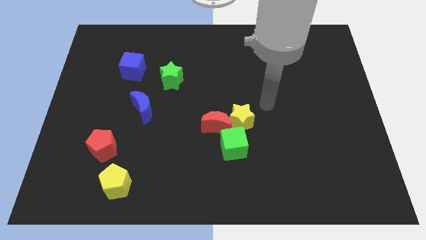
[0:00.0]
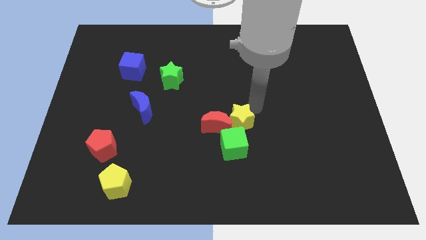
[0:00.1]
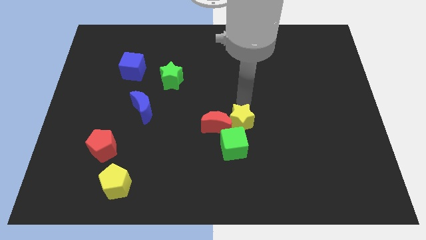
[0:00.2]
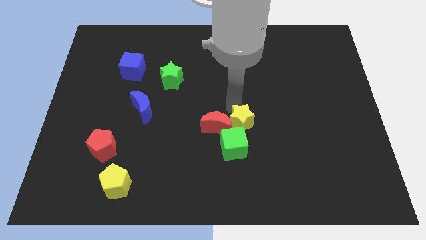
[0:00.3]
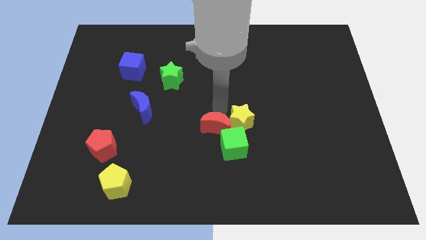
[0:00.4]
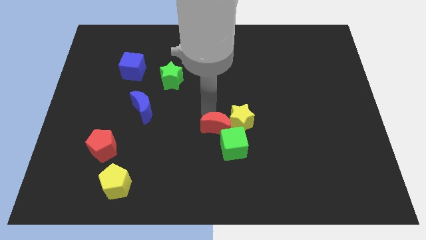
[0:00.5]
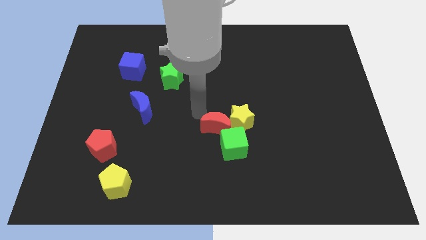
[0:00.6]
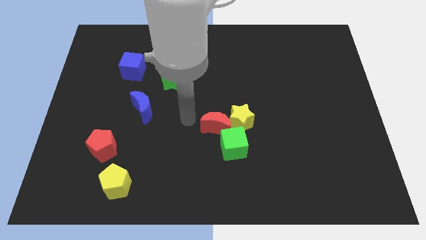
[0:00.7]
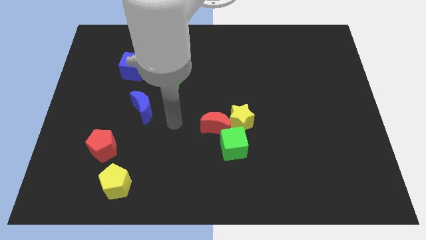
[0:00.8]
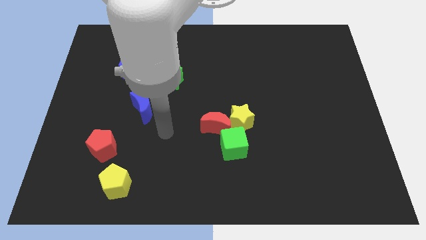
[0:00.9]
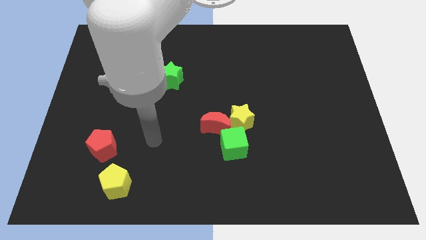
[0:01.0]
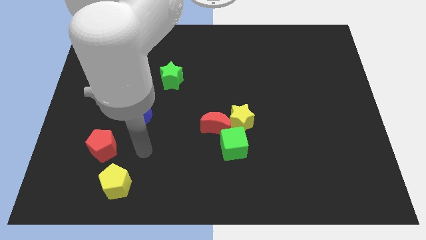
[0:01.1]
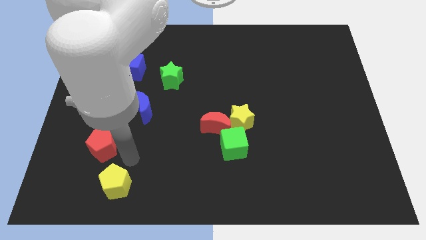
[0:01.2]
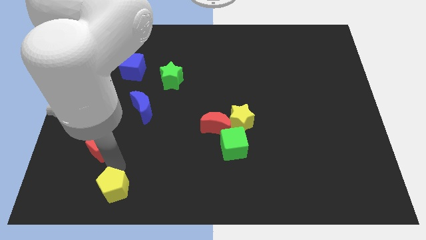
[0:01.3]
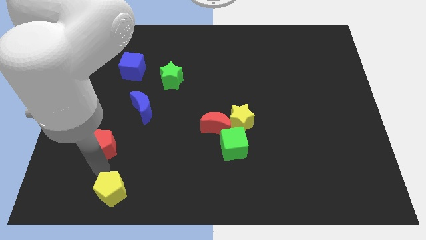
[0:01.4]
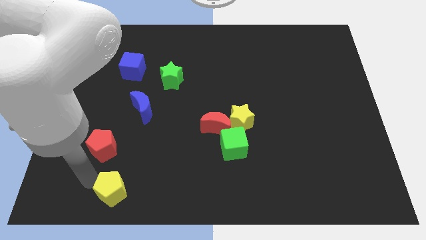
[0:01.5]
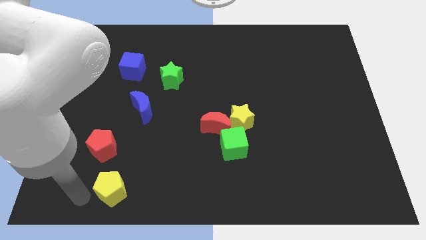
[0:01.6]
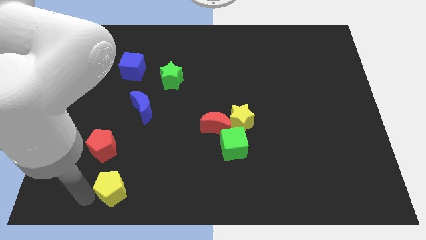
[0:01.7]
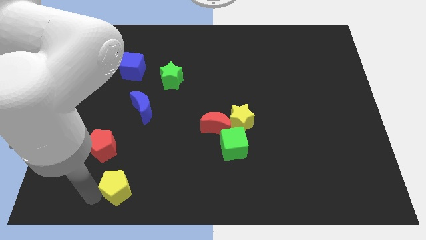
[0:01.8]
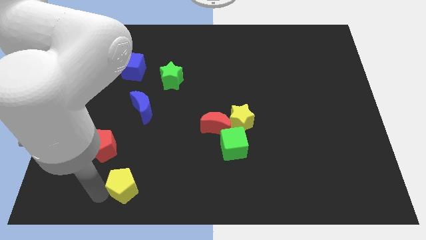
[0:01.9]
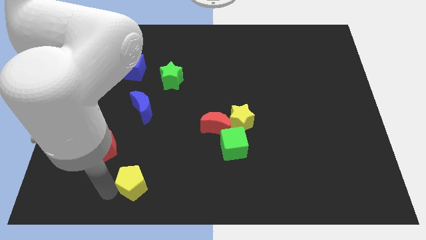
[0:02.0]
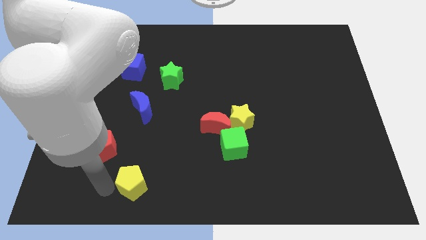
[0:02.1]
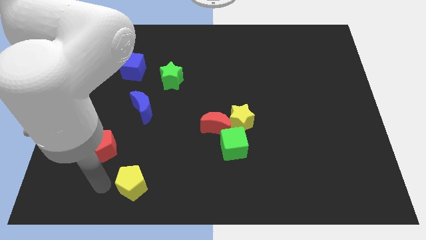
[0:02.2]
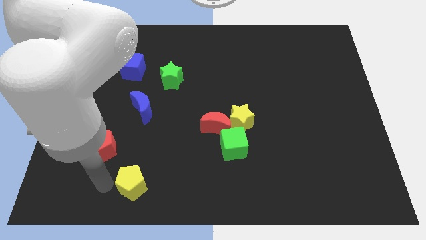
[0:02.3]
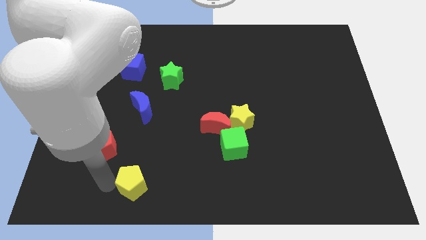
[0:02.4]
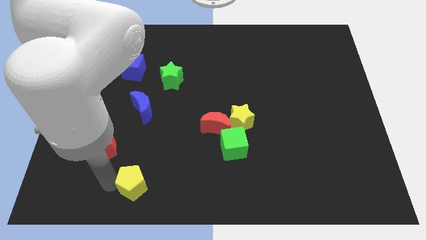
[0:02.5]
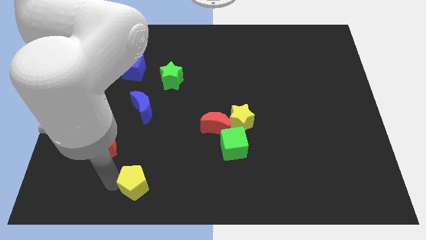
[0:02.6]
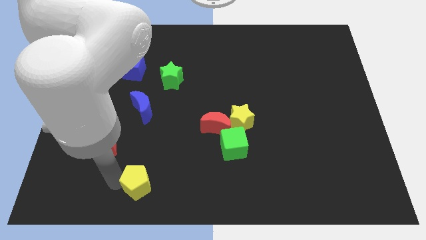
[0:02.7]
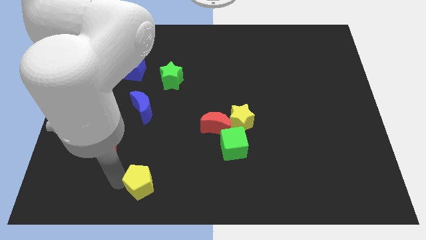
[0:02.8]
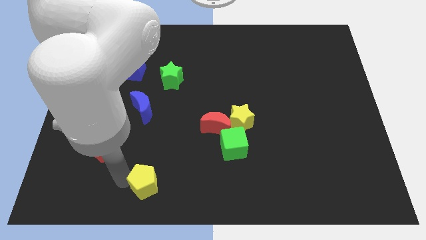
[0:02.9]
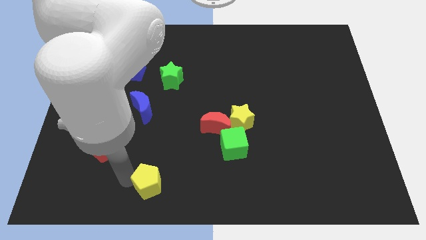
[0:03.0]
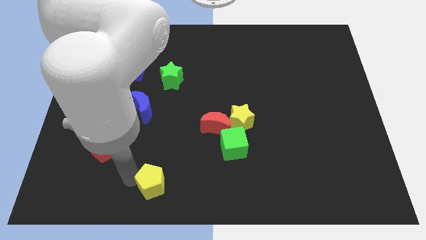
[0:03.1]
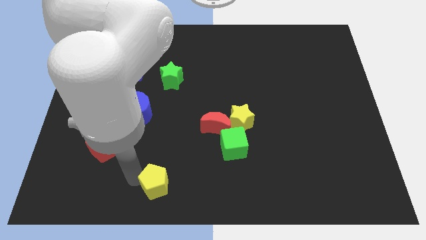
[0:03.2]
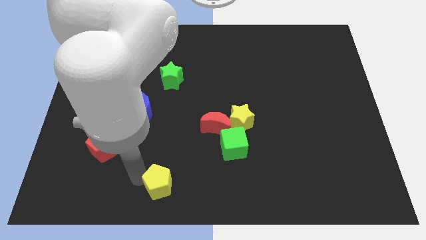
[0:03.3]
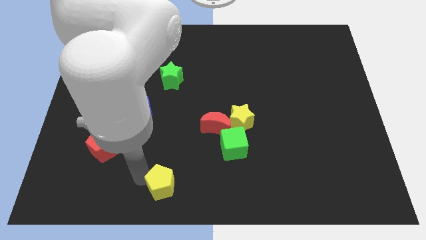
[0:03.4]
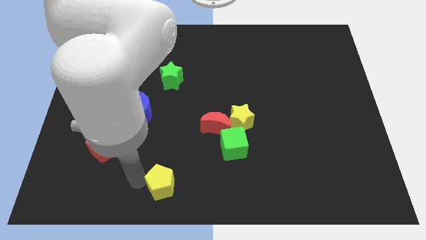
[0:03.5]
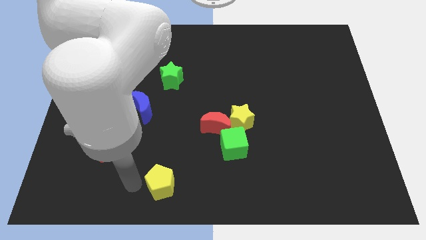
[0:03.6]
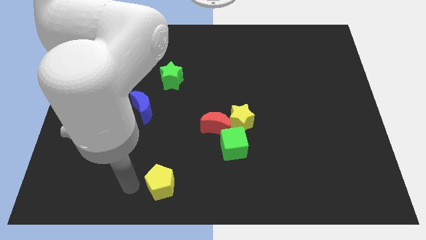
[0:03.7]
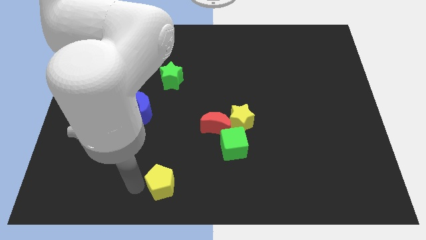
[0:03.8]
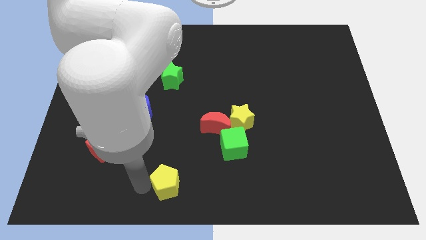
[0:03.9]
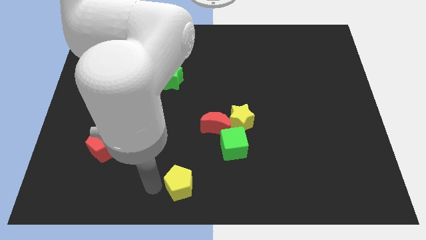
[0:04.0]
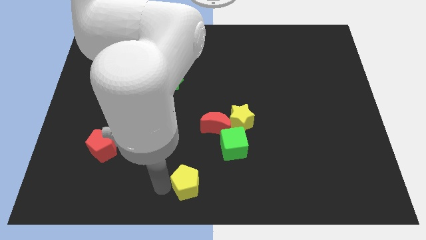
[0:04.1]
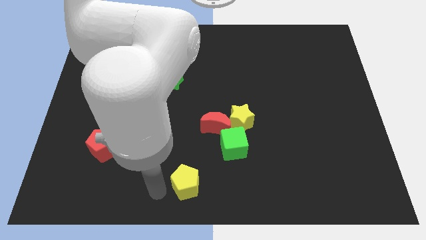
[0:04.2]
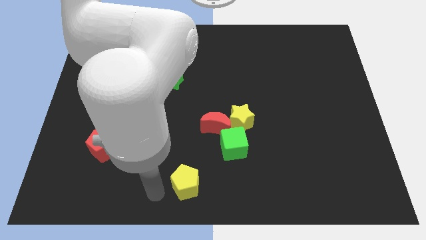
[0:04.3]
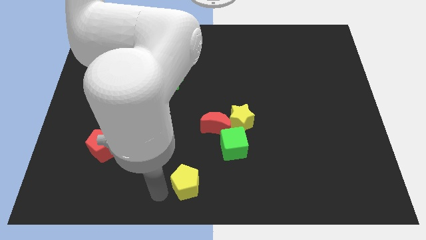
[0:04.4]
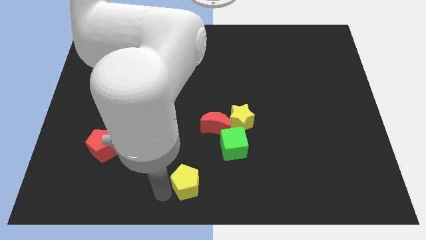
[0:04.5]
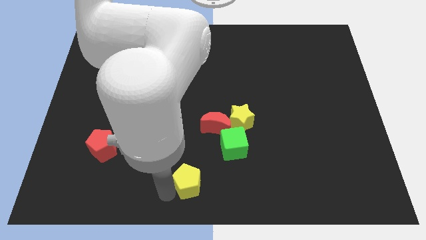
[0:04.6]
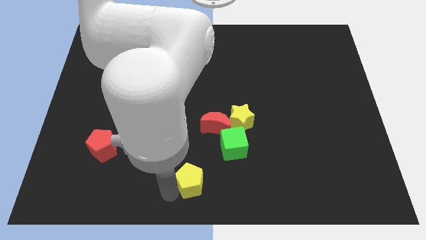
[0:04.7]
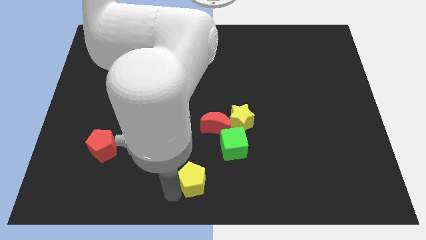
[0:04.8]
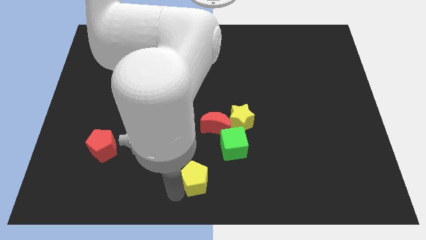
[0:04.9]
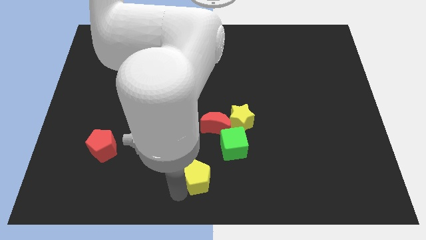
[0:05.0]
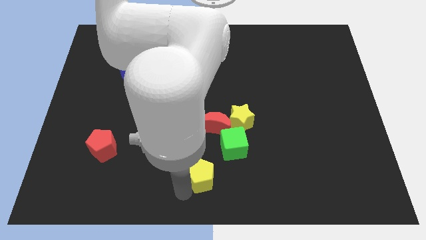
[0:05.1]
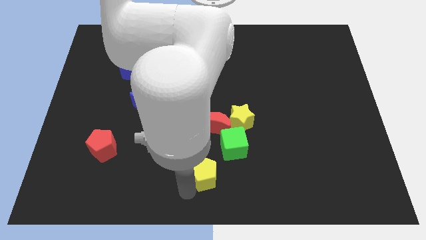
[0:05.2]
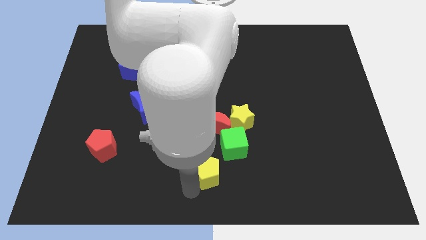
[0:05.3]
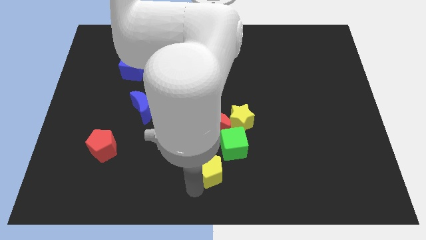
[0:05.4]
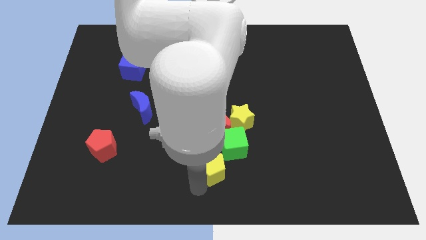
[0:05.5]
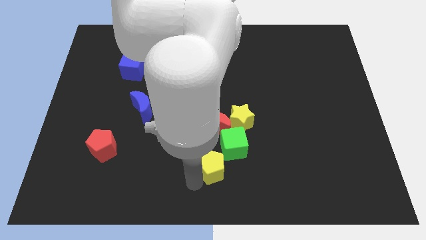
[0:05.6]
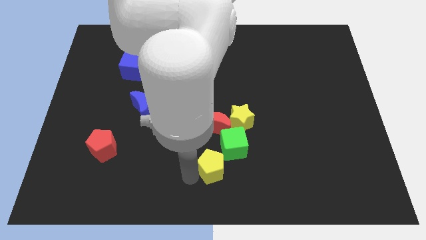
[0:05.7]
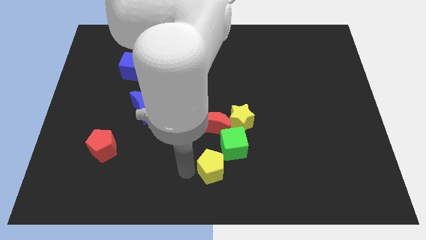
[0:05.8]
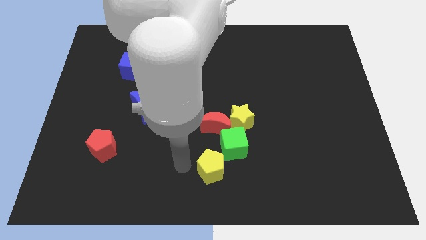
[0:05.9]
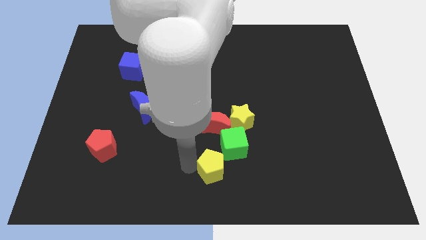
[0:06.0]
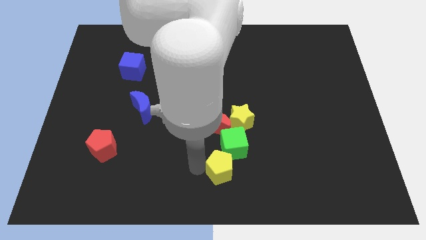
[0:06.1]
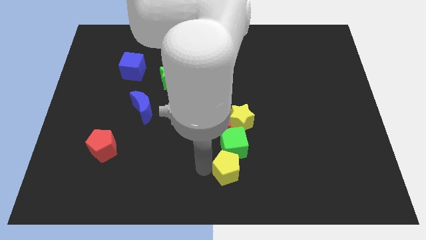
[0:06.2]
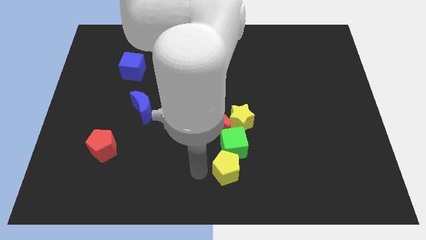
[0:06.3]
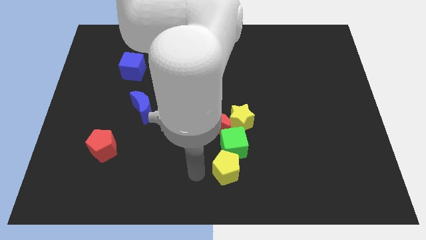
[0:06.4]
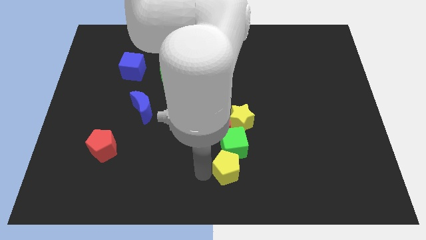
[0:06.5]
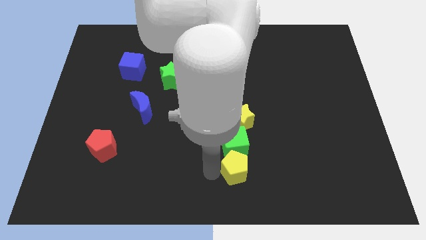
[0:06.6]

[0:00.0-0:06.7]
move the yellow pentagon to the bottom right side of the green cube
